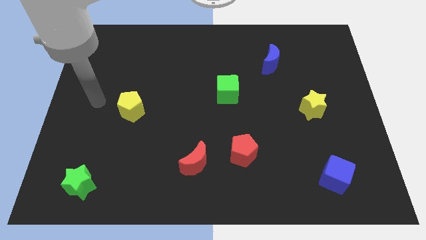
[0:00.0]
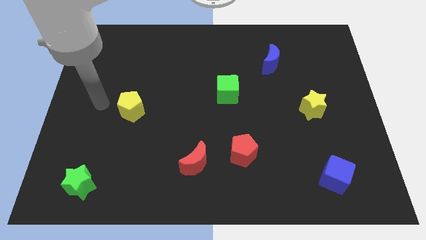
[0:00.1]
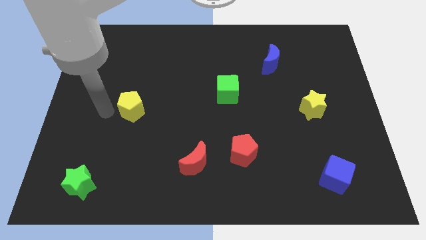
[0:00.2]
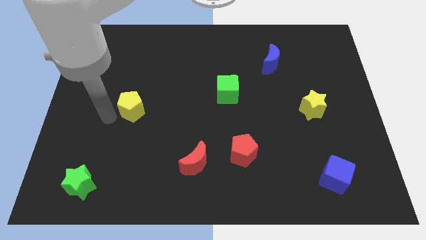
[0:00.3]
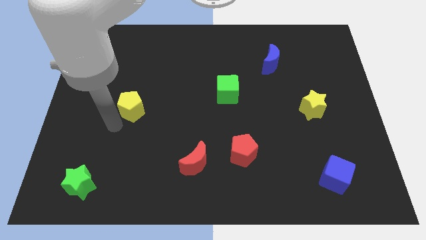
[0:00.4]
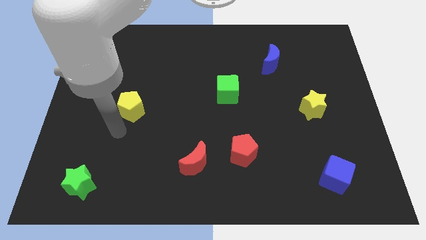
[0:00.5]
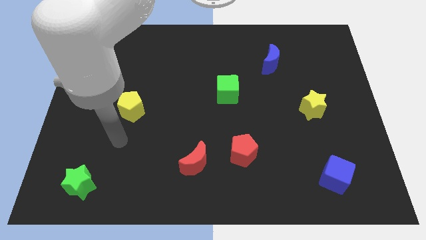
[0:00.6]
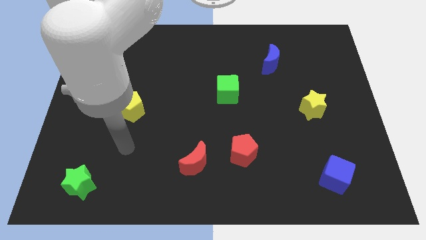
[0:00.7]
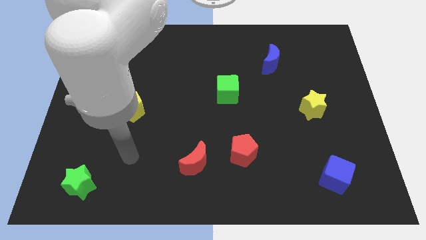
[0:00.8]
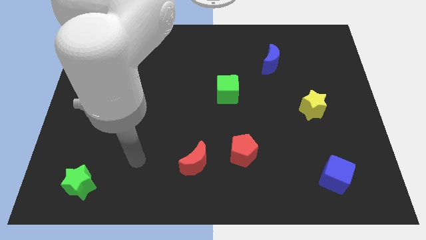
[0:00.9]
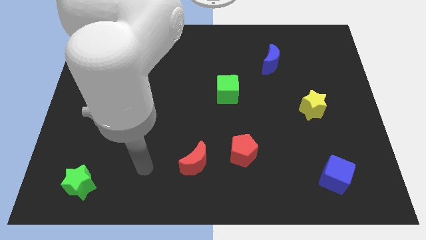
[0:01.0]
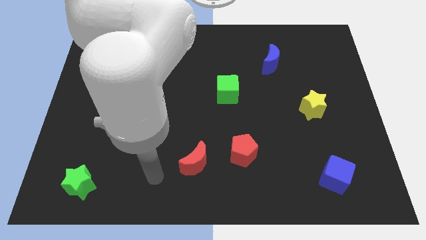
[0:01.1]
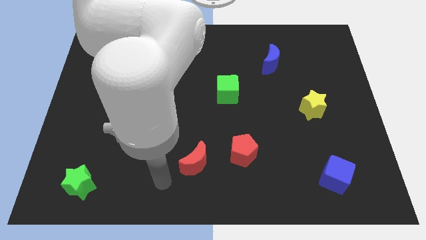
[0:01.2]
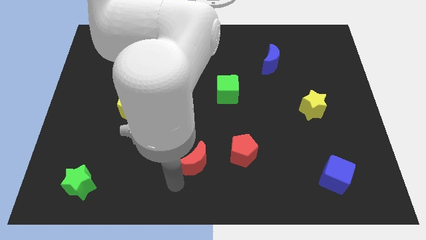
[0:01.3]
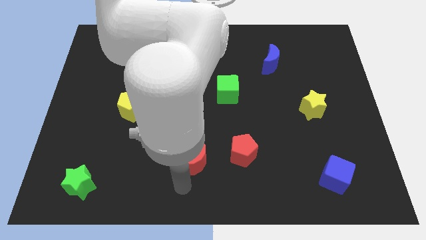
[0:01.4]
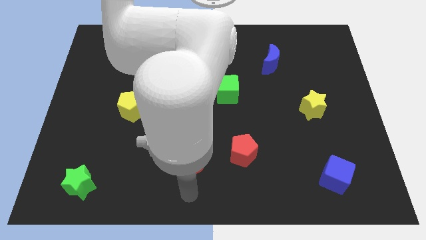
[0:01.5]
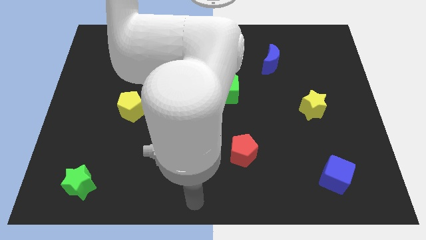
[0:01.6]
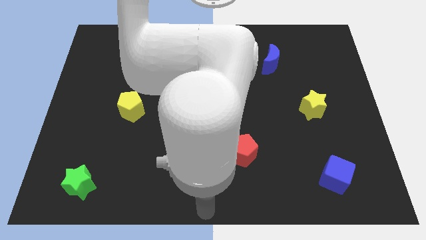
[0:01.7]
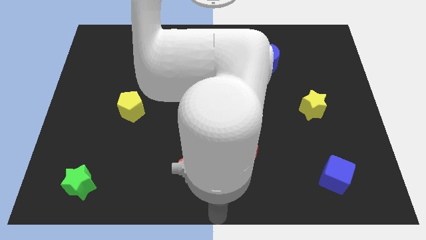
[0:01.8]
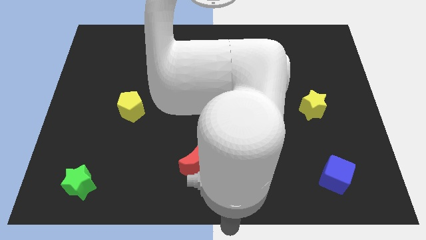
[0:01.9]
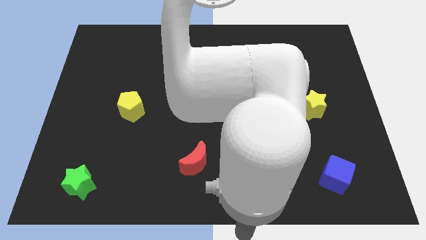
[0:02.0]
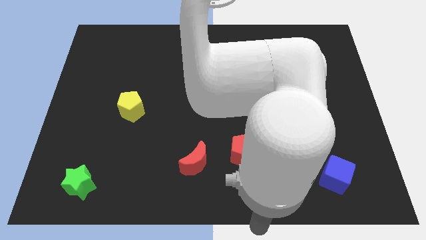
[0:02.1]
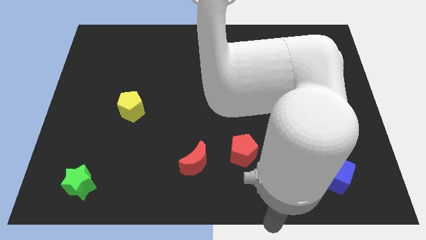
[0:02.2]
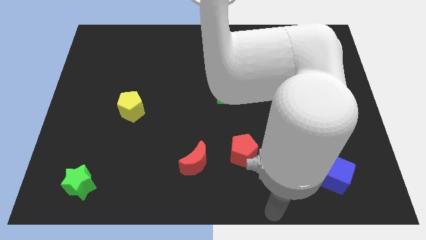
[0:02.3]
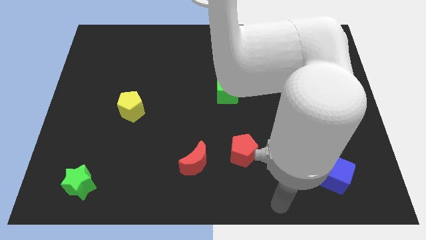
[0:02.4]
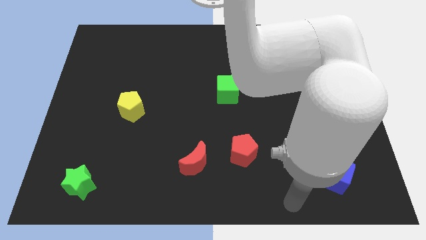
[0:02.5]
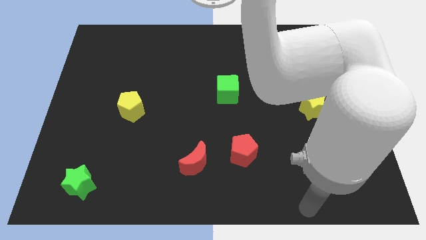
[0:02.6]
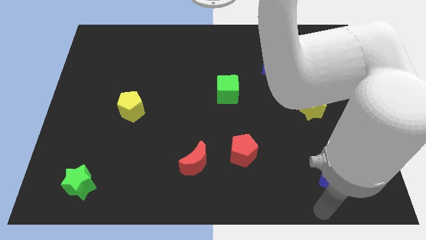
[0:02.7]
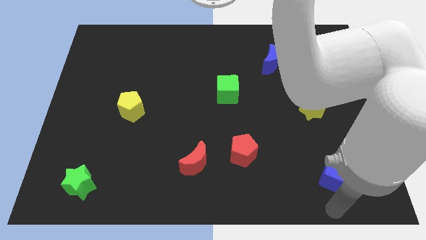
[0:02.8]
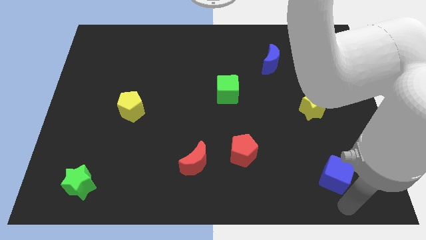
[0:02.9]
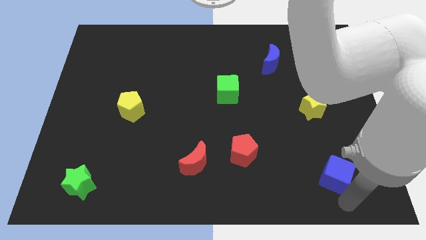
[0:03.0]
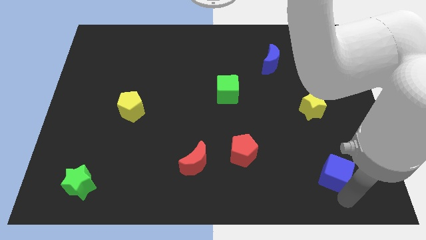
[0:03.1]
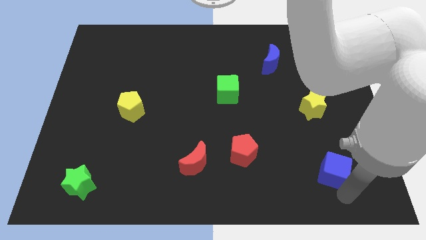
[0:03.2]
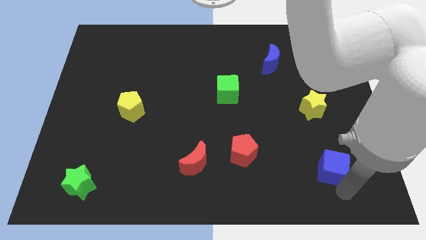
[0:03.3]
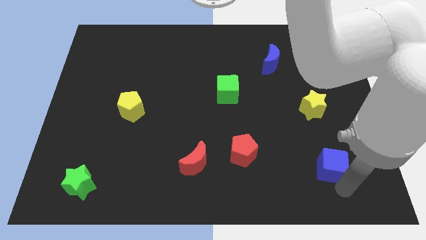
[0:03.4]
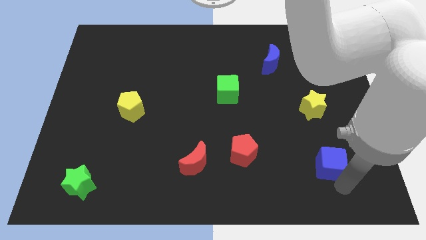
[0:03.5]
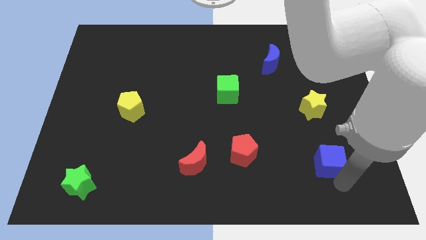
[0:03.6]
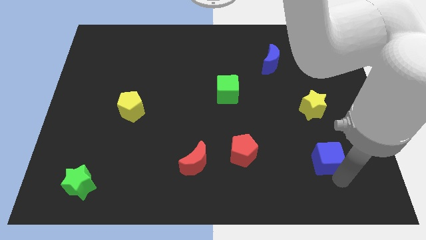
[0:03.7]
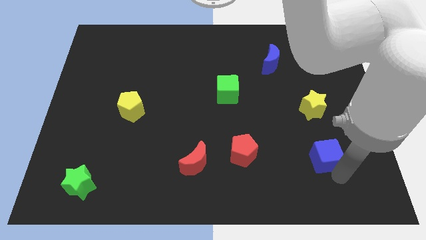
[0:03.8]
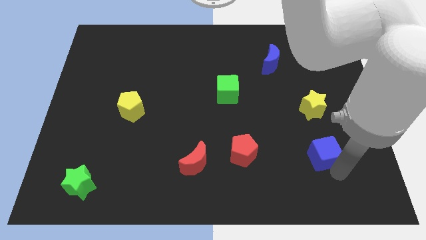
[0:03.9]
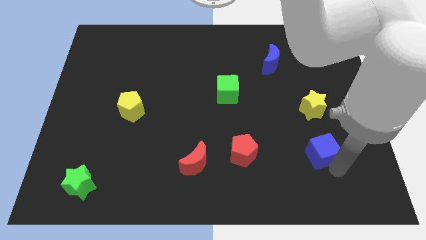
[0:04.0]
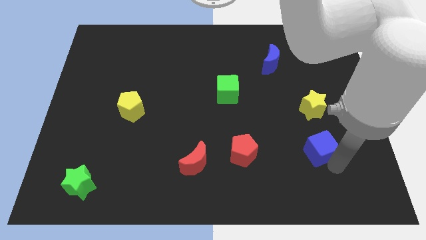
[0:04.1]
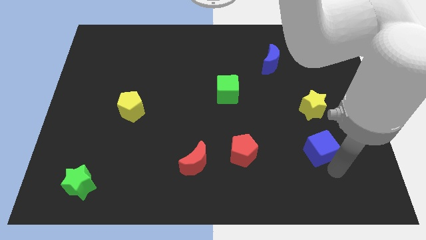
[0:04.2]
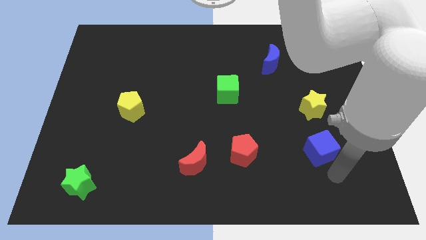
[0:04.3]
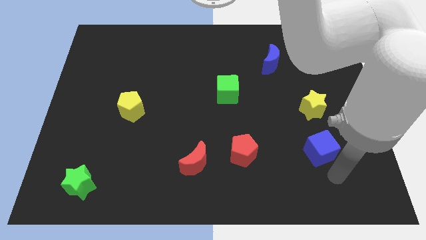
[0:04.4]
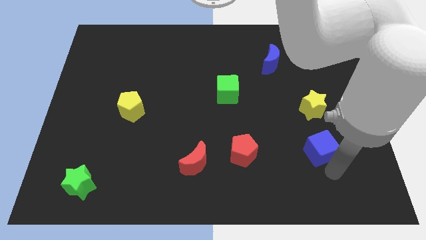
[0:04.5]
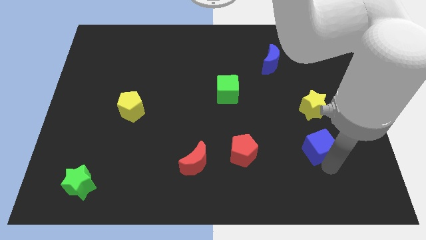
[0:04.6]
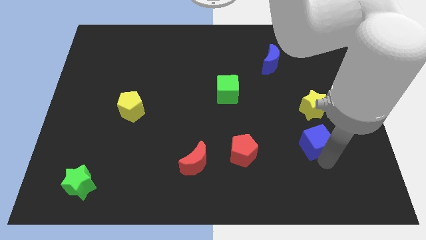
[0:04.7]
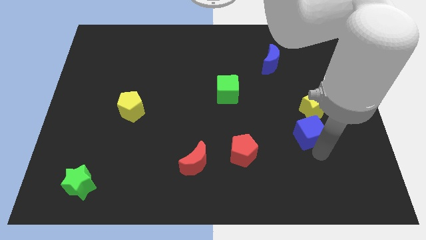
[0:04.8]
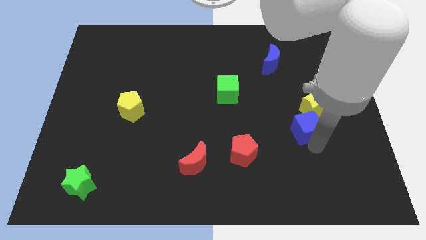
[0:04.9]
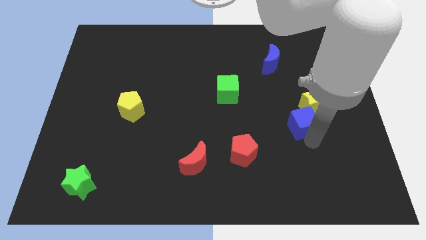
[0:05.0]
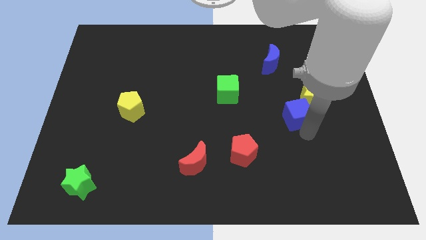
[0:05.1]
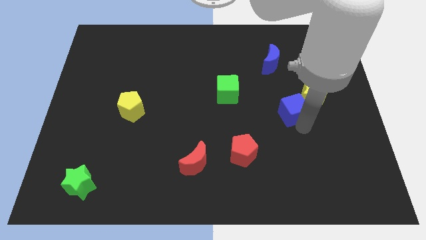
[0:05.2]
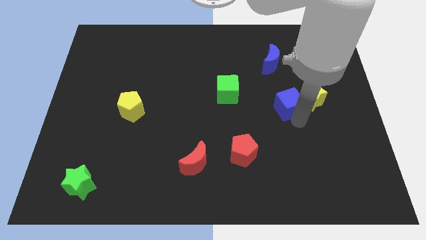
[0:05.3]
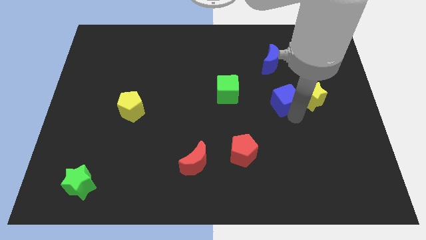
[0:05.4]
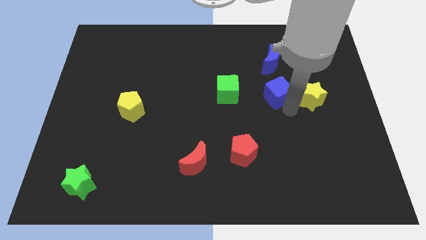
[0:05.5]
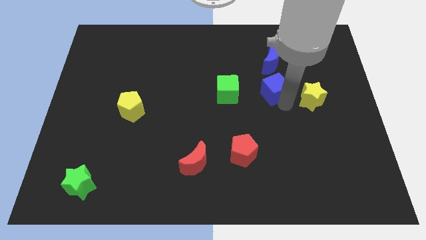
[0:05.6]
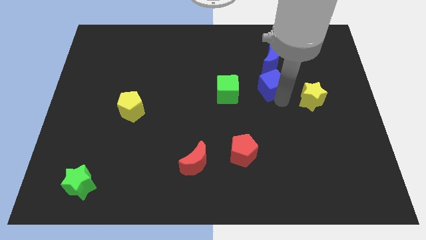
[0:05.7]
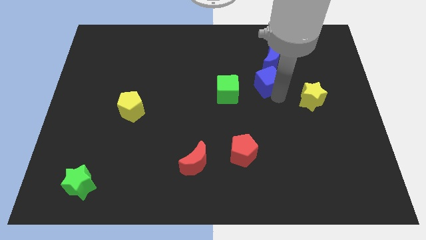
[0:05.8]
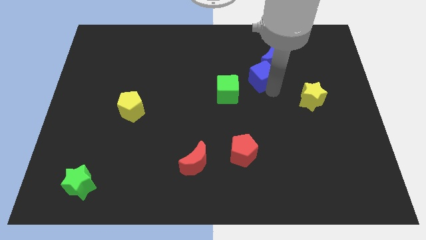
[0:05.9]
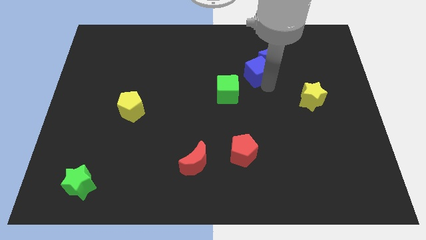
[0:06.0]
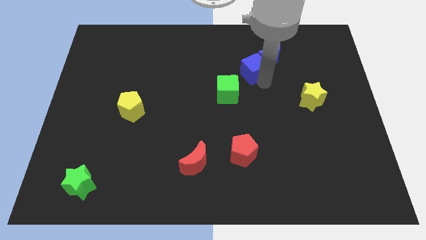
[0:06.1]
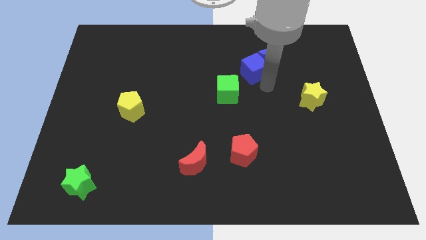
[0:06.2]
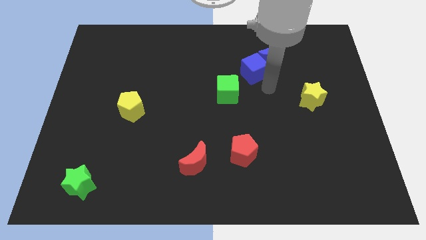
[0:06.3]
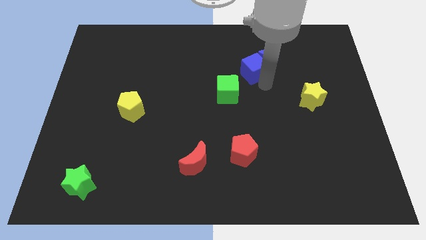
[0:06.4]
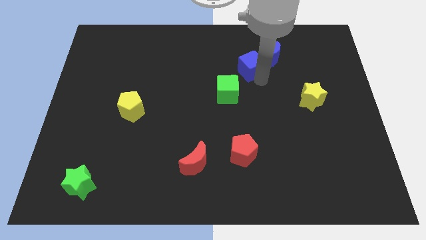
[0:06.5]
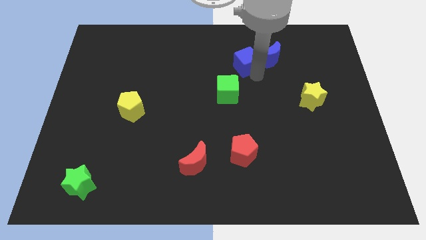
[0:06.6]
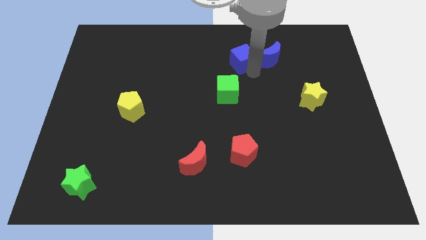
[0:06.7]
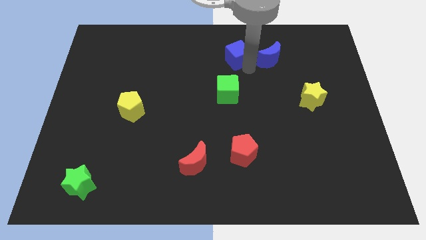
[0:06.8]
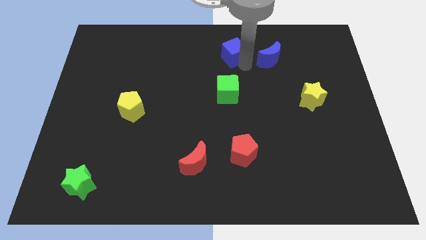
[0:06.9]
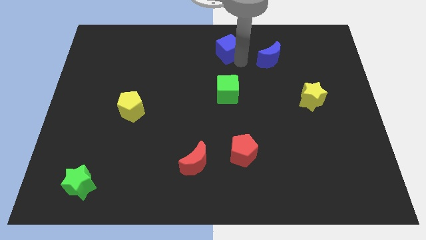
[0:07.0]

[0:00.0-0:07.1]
put the blue cube to the top

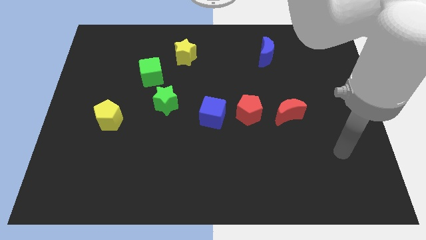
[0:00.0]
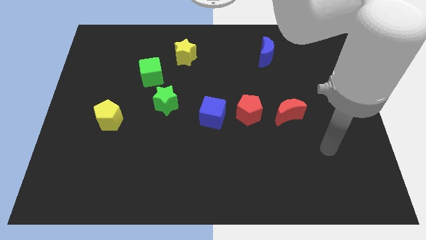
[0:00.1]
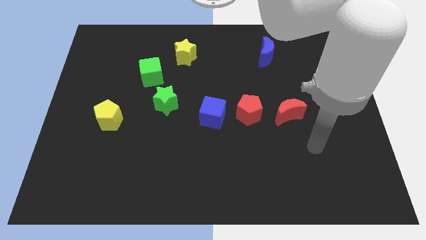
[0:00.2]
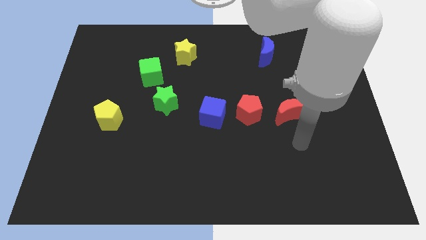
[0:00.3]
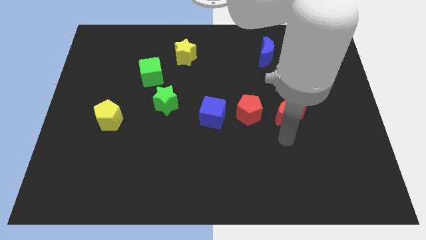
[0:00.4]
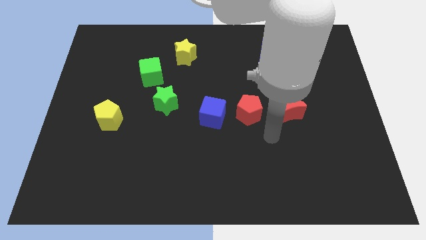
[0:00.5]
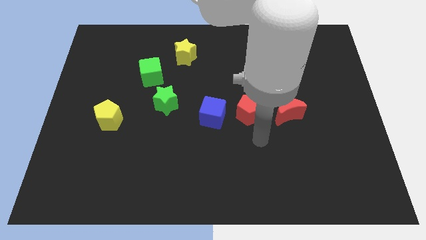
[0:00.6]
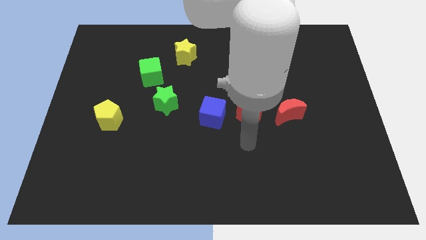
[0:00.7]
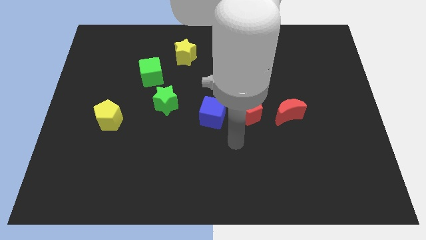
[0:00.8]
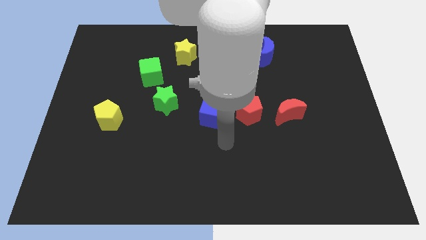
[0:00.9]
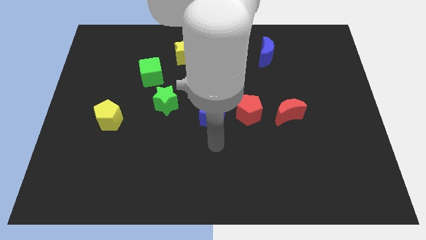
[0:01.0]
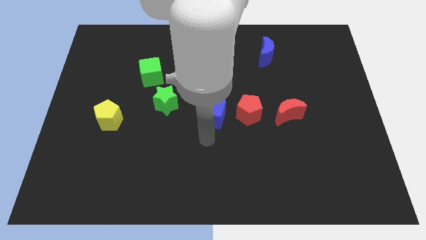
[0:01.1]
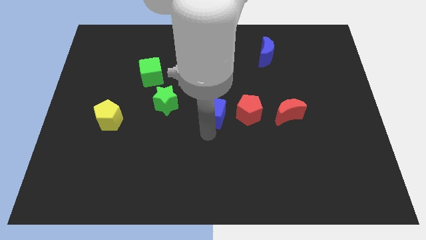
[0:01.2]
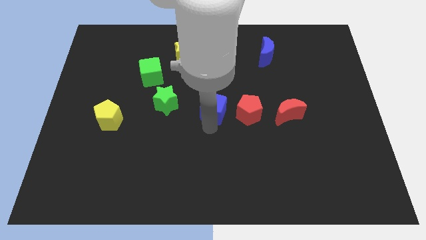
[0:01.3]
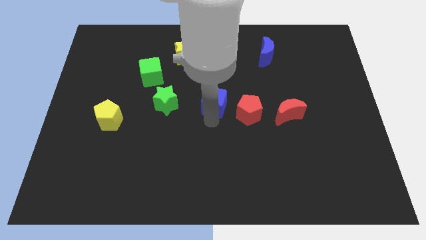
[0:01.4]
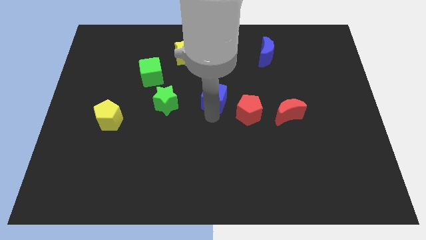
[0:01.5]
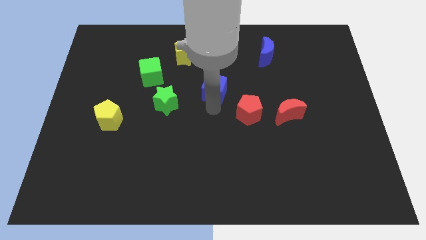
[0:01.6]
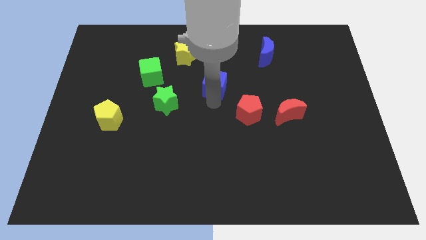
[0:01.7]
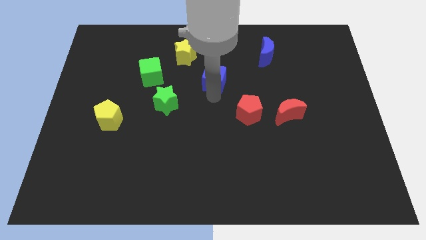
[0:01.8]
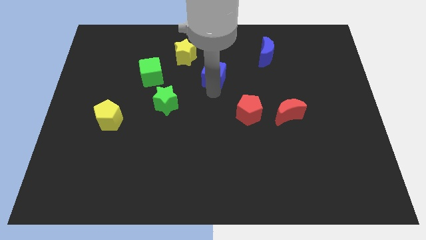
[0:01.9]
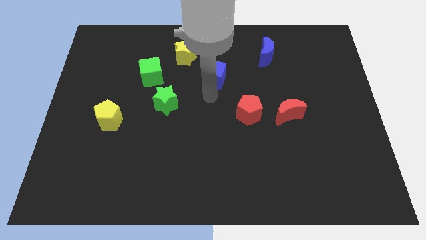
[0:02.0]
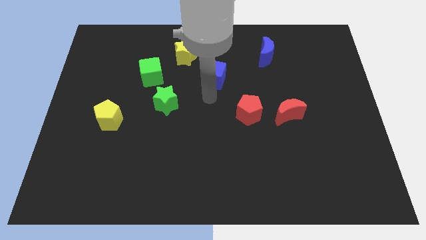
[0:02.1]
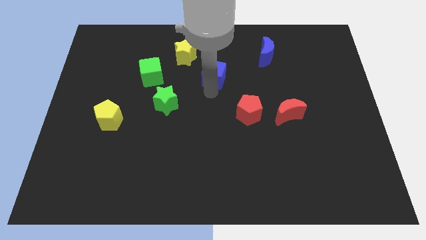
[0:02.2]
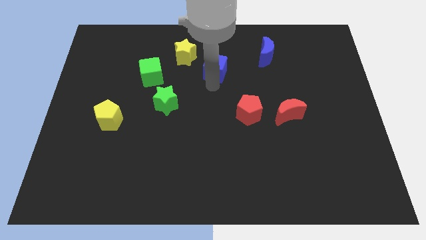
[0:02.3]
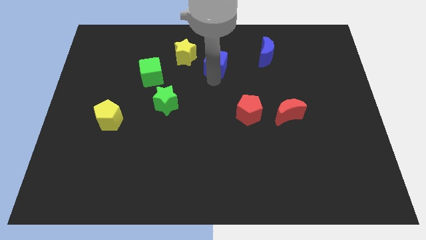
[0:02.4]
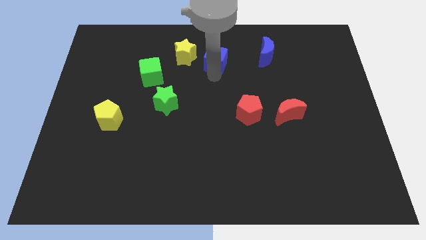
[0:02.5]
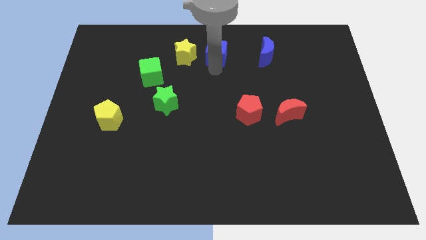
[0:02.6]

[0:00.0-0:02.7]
put the blue cube to the towards your base
